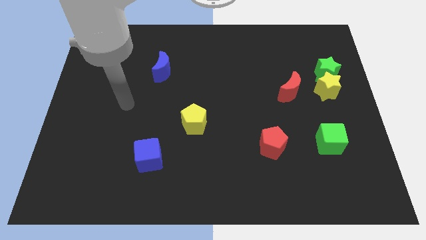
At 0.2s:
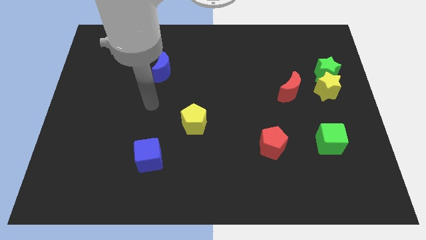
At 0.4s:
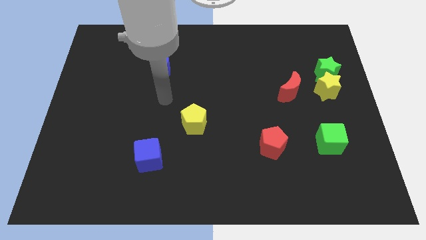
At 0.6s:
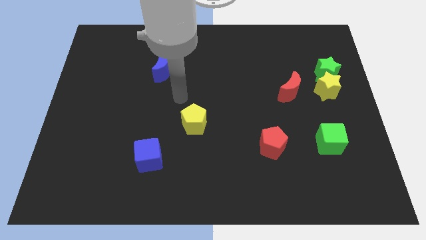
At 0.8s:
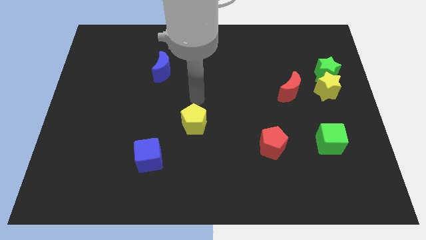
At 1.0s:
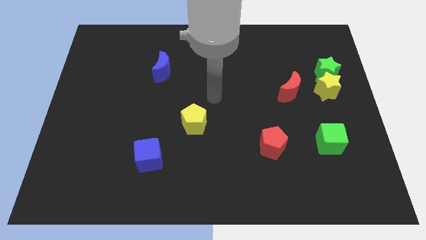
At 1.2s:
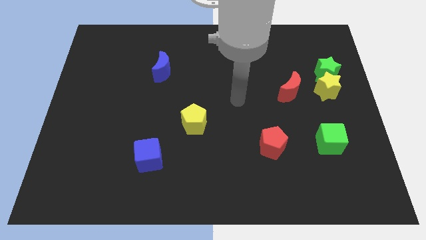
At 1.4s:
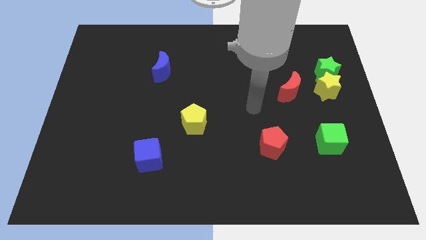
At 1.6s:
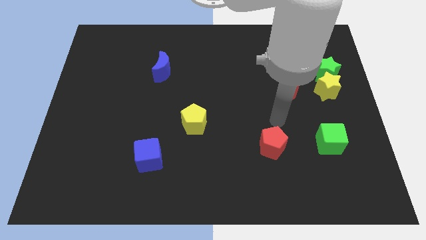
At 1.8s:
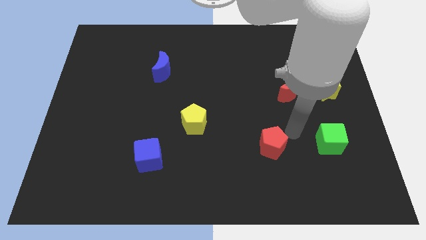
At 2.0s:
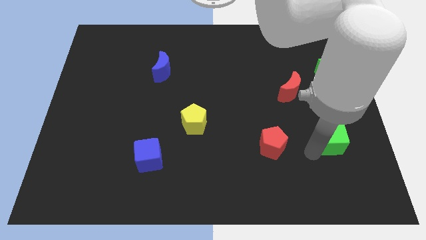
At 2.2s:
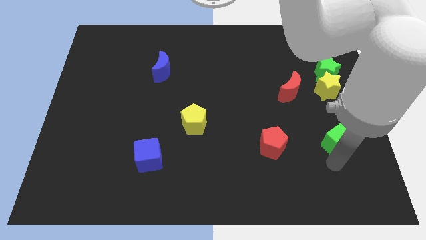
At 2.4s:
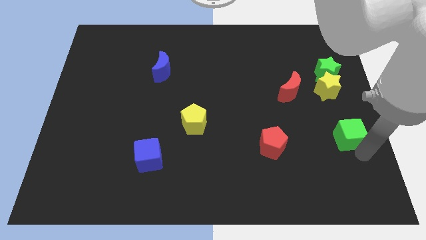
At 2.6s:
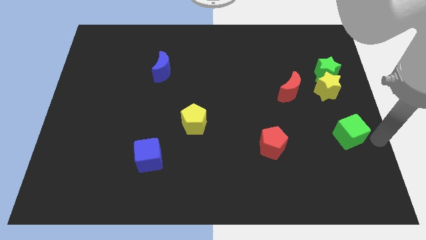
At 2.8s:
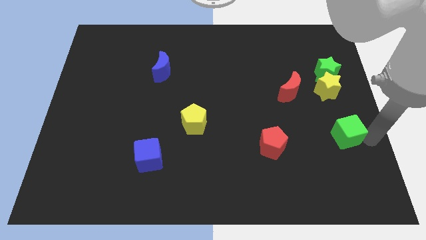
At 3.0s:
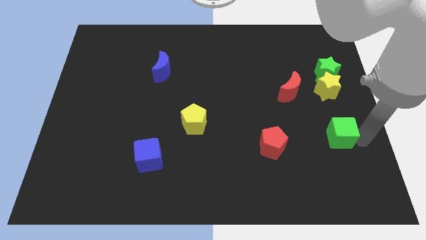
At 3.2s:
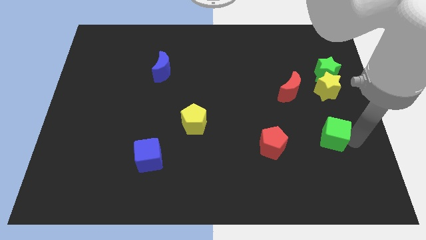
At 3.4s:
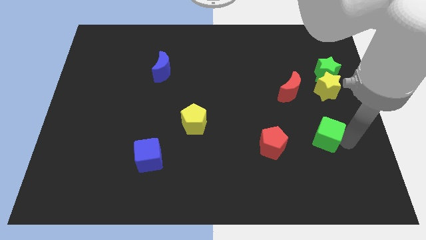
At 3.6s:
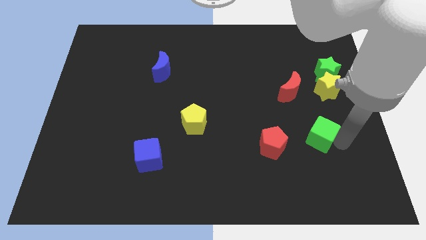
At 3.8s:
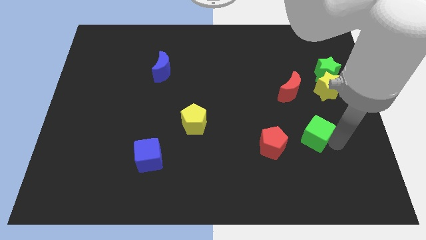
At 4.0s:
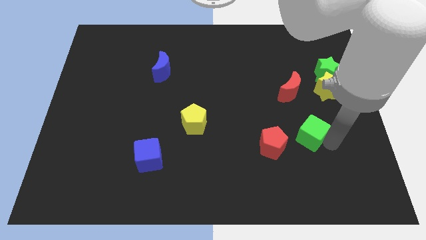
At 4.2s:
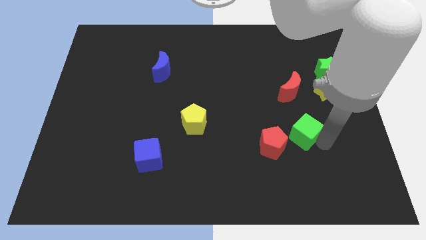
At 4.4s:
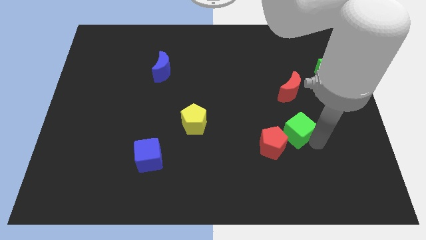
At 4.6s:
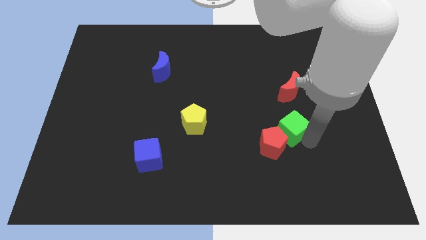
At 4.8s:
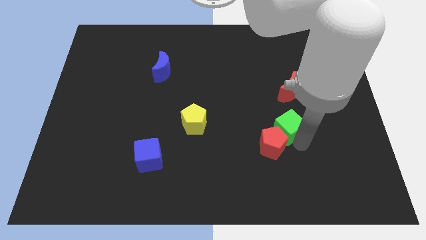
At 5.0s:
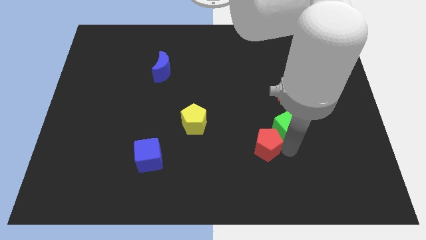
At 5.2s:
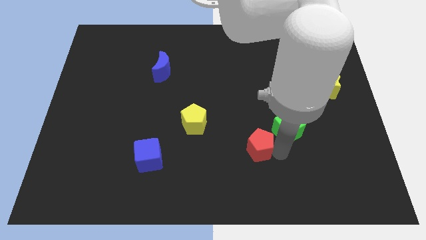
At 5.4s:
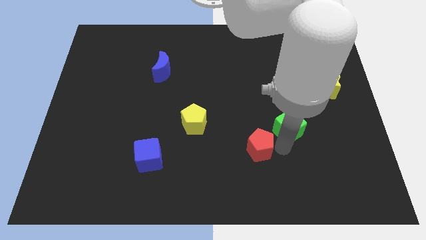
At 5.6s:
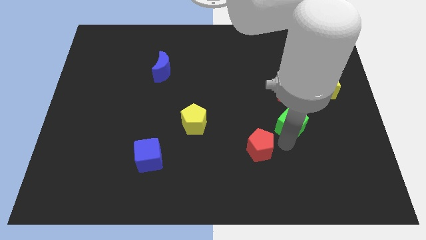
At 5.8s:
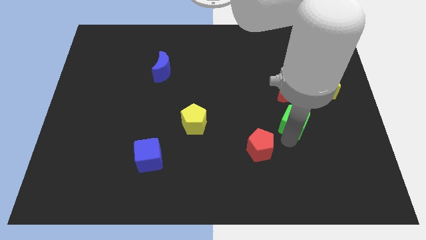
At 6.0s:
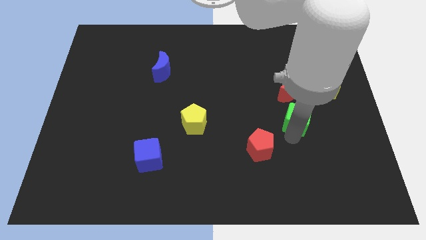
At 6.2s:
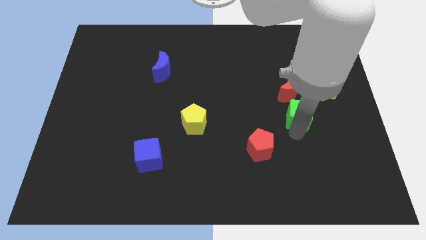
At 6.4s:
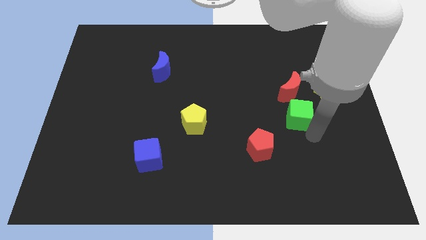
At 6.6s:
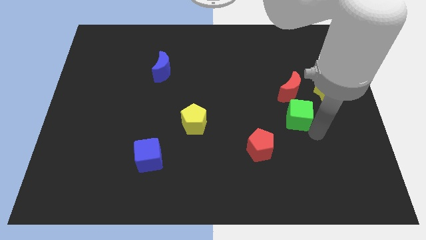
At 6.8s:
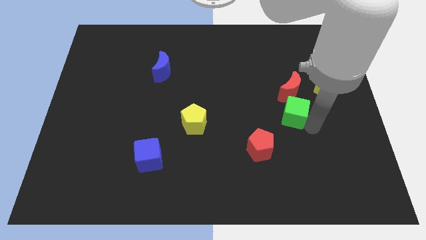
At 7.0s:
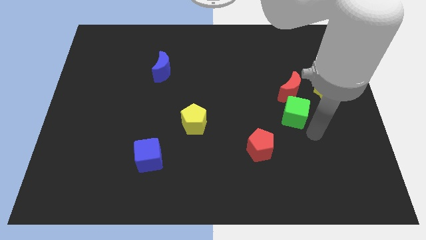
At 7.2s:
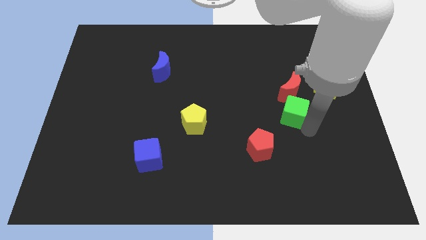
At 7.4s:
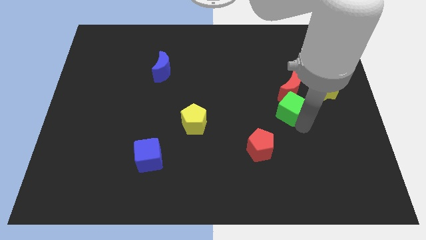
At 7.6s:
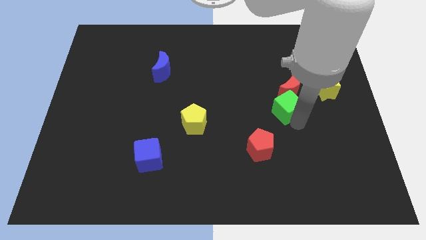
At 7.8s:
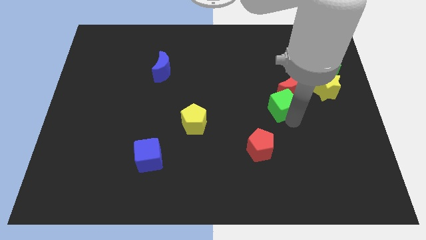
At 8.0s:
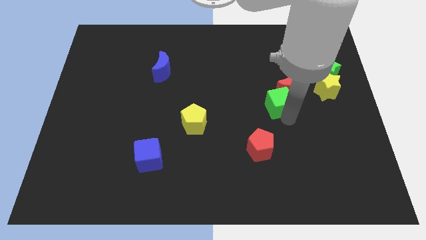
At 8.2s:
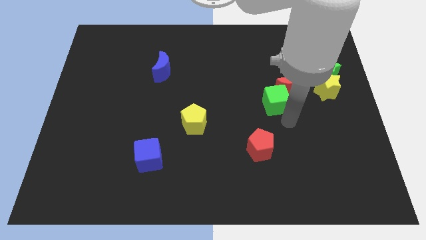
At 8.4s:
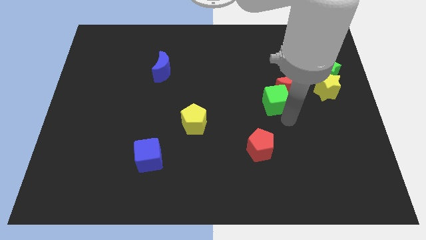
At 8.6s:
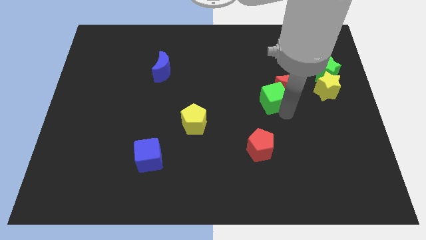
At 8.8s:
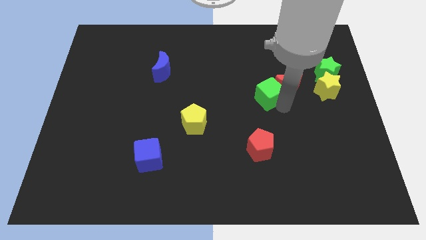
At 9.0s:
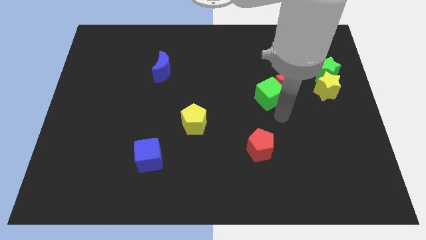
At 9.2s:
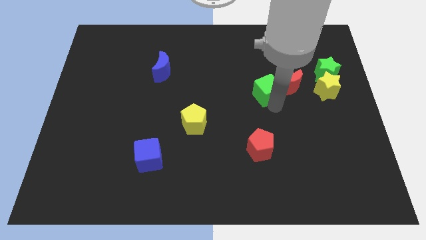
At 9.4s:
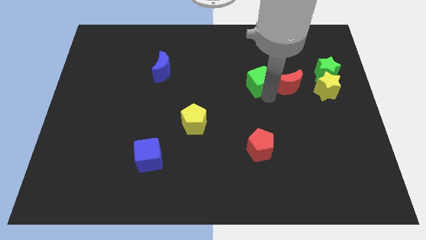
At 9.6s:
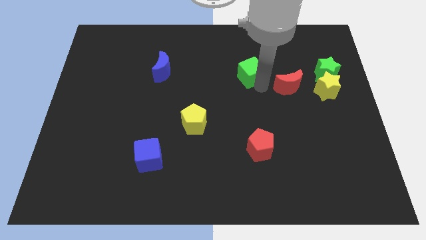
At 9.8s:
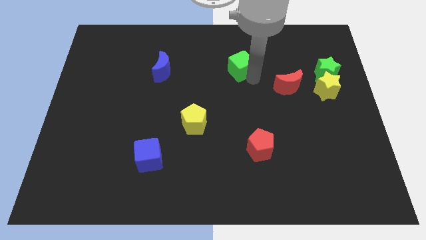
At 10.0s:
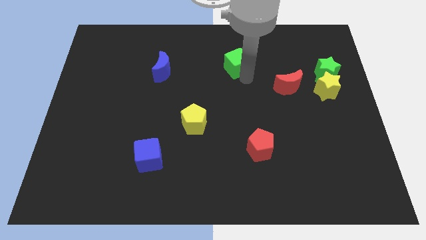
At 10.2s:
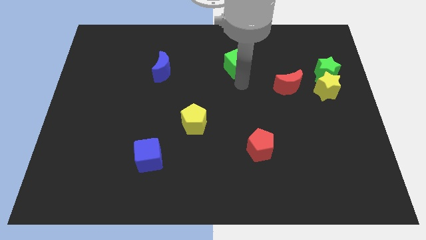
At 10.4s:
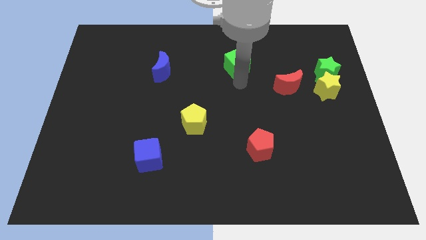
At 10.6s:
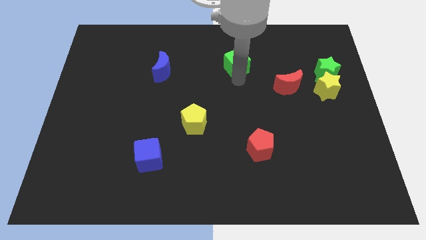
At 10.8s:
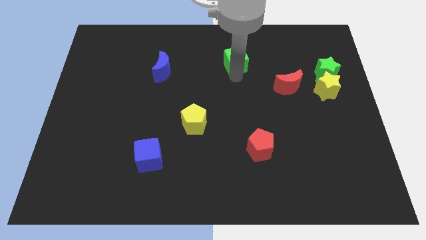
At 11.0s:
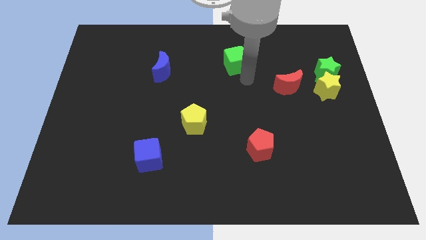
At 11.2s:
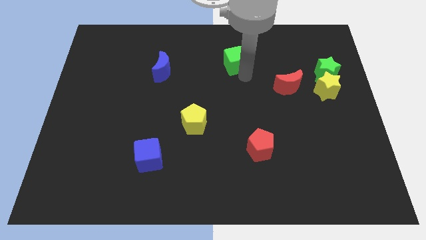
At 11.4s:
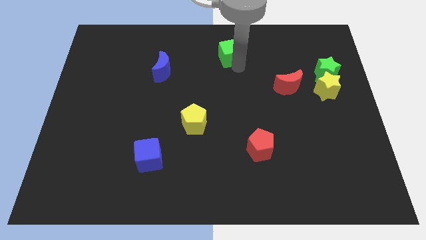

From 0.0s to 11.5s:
move the green cube to the top
